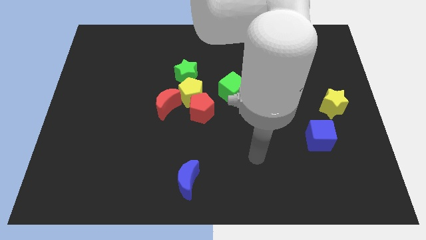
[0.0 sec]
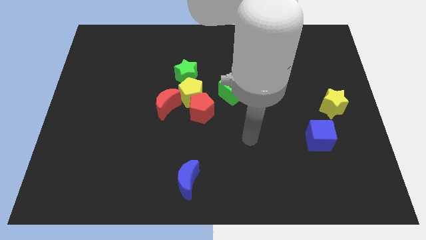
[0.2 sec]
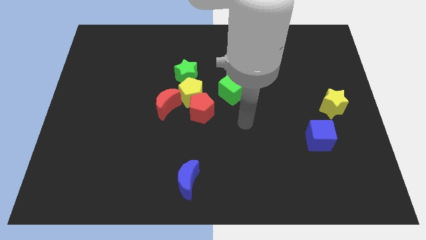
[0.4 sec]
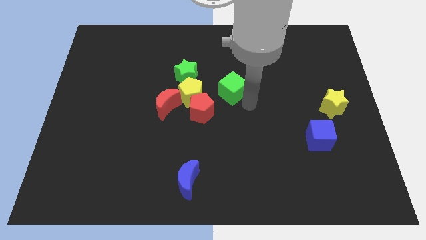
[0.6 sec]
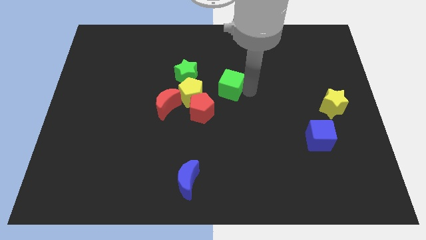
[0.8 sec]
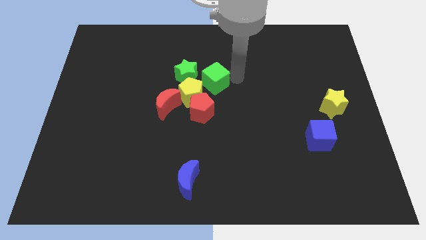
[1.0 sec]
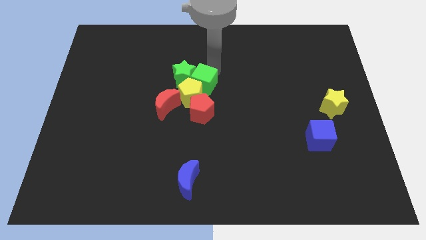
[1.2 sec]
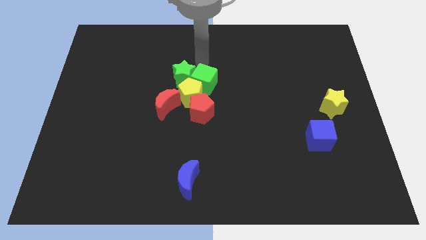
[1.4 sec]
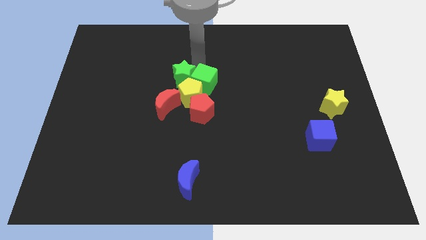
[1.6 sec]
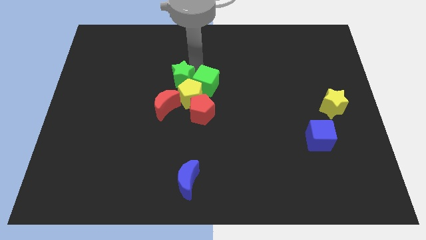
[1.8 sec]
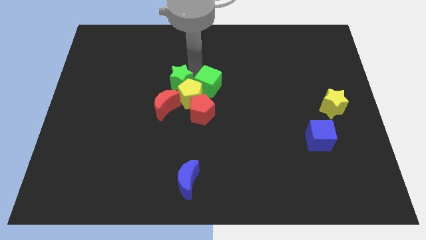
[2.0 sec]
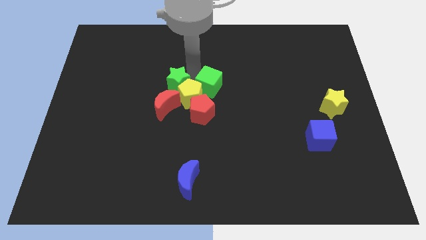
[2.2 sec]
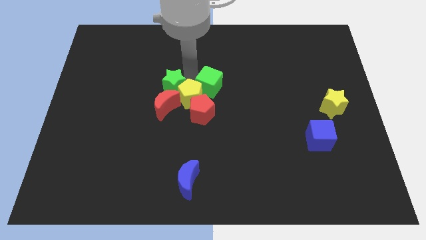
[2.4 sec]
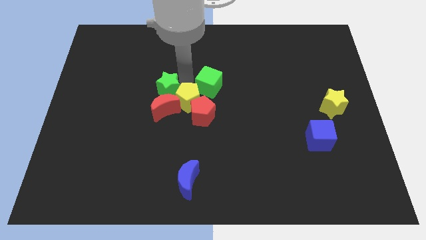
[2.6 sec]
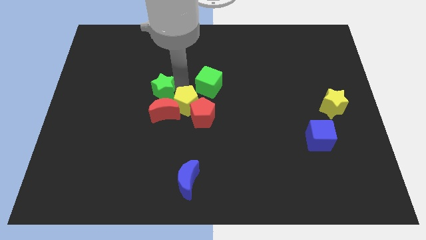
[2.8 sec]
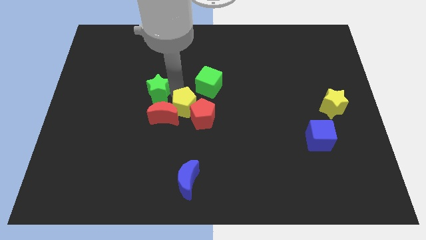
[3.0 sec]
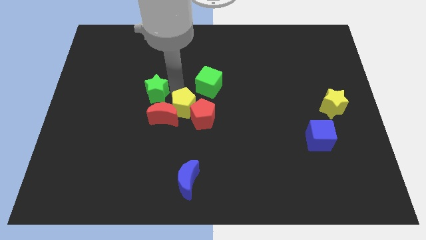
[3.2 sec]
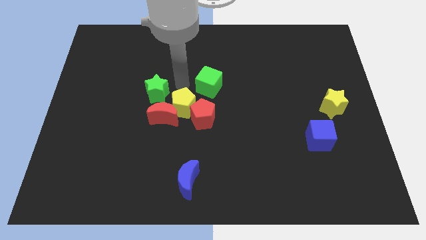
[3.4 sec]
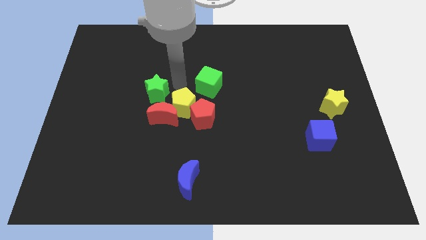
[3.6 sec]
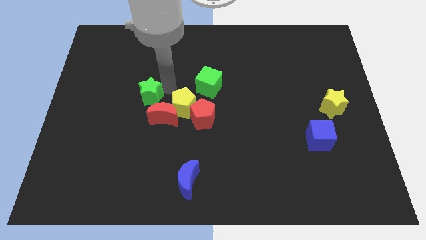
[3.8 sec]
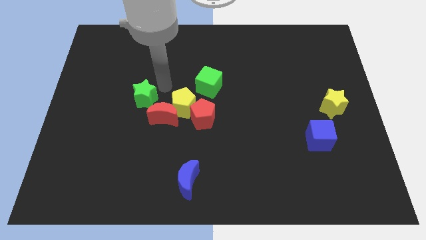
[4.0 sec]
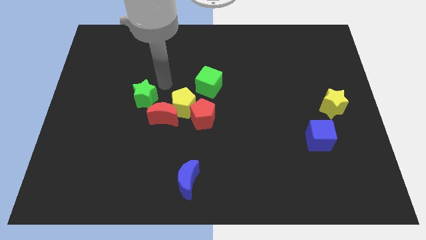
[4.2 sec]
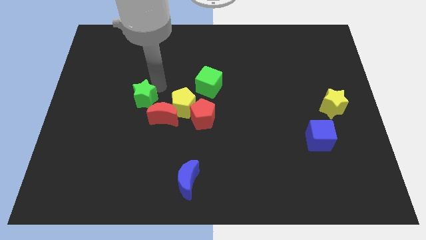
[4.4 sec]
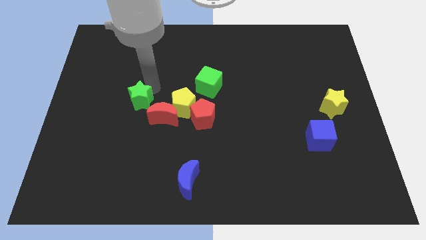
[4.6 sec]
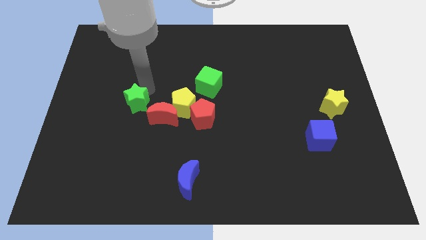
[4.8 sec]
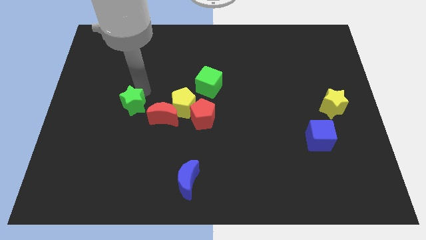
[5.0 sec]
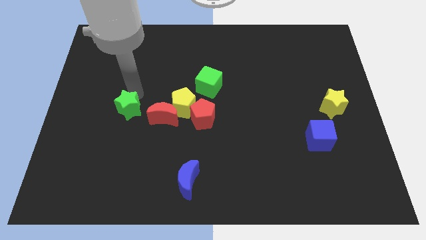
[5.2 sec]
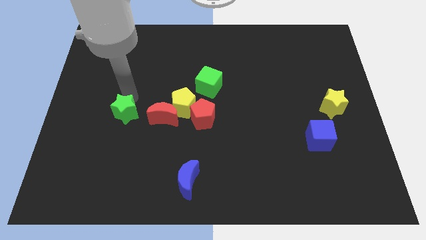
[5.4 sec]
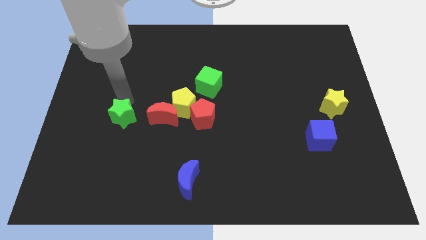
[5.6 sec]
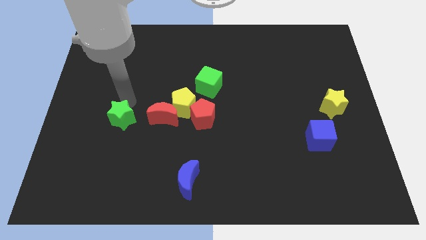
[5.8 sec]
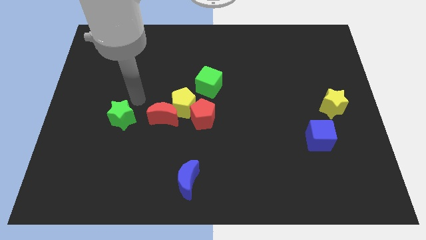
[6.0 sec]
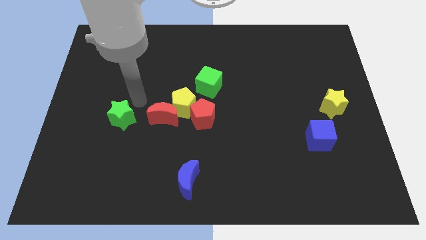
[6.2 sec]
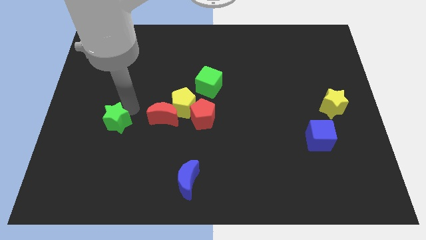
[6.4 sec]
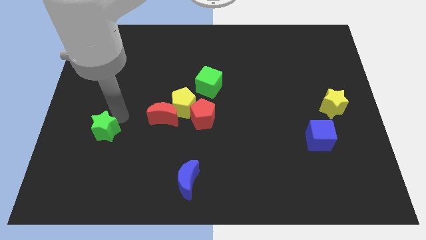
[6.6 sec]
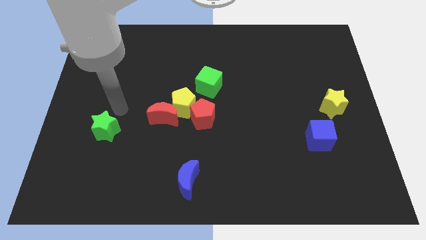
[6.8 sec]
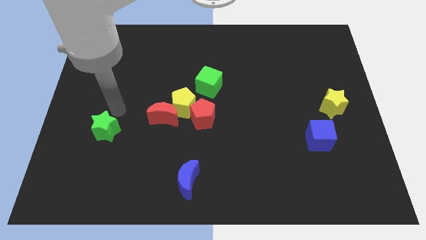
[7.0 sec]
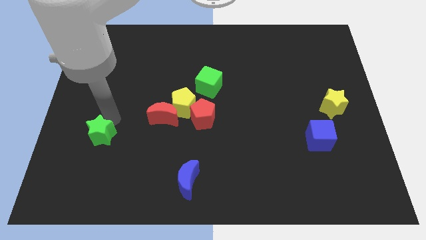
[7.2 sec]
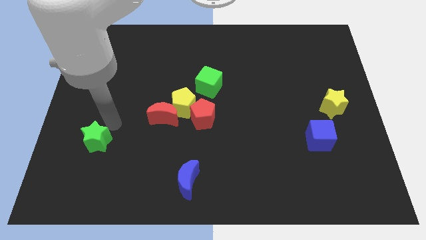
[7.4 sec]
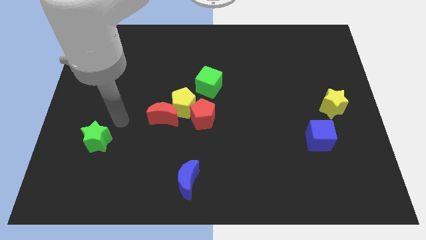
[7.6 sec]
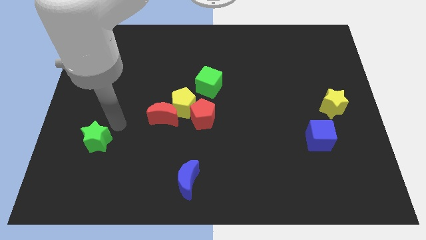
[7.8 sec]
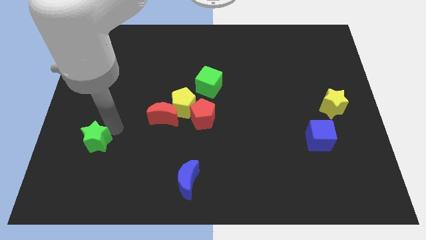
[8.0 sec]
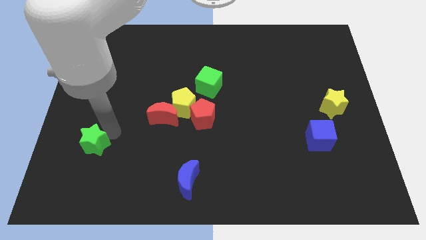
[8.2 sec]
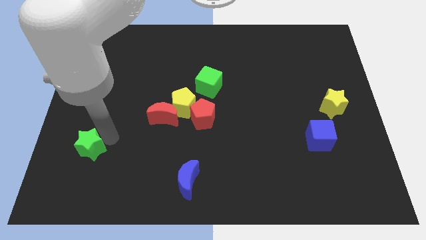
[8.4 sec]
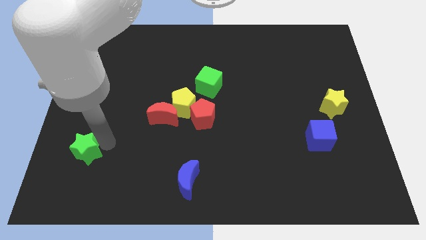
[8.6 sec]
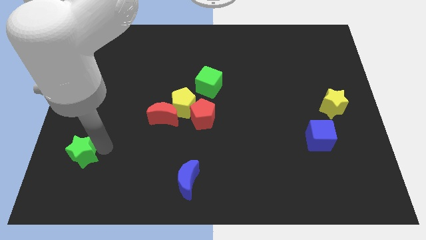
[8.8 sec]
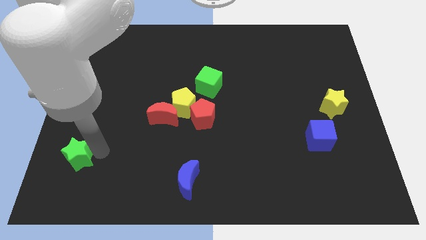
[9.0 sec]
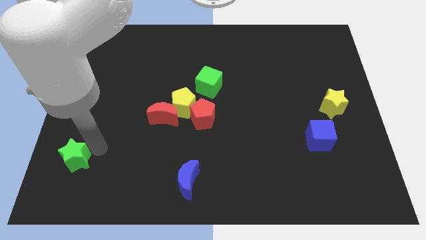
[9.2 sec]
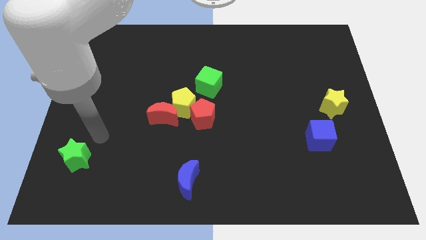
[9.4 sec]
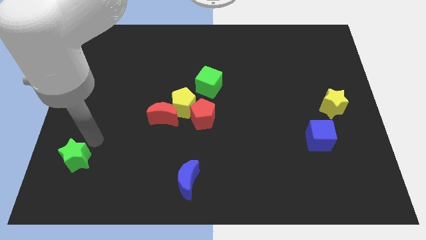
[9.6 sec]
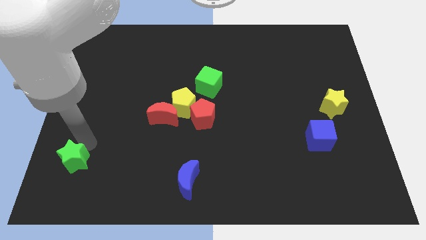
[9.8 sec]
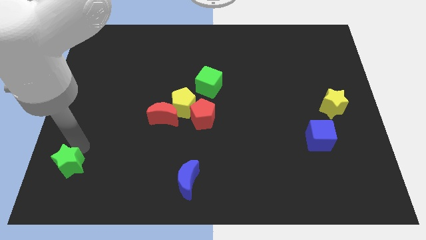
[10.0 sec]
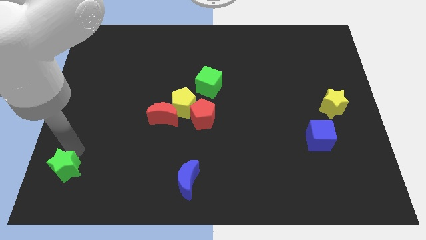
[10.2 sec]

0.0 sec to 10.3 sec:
move the green star to the bottom left of the board

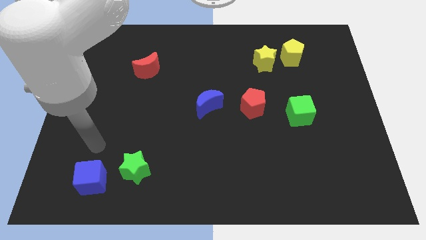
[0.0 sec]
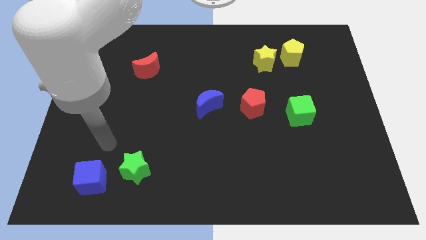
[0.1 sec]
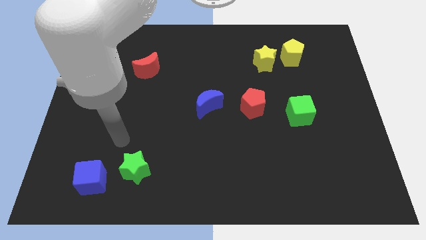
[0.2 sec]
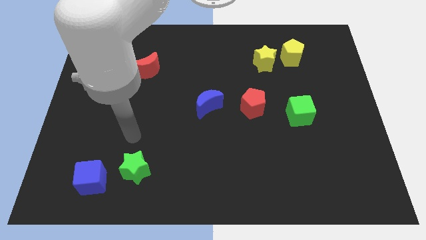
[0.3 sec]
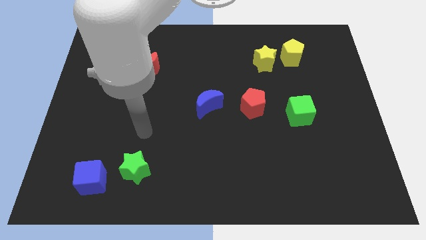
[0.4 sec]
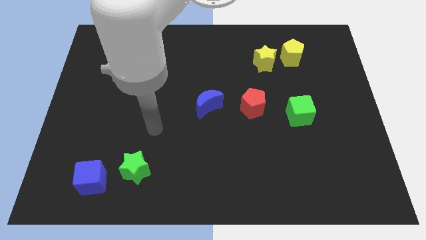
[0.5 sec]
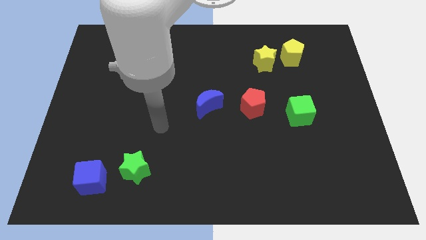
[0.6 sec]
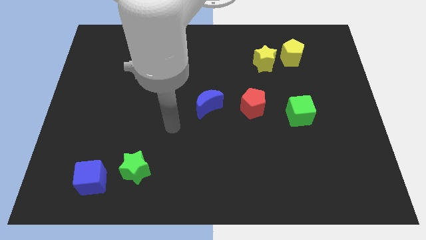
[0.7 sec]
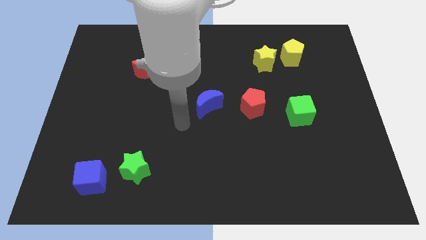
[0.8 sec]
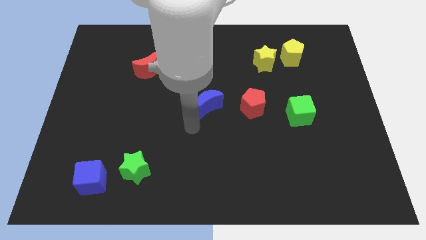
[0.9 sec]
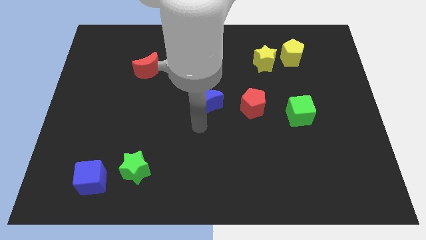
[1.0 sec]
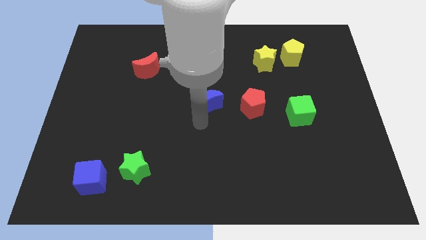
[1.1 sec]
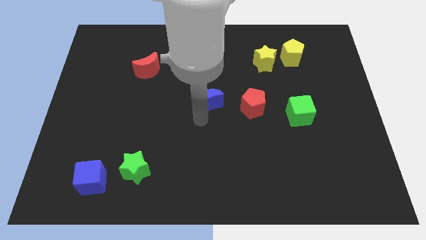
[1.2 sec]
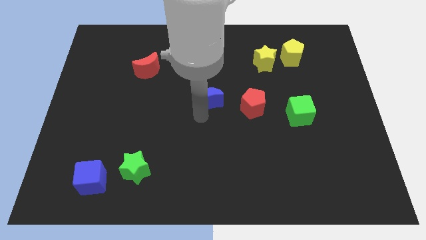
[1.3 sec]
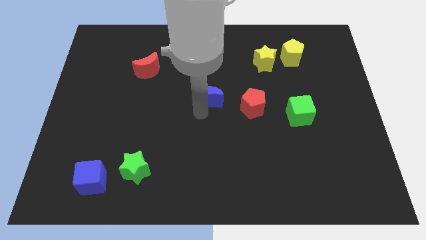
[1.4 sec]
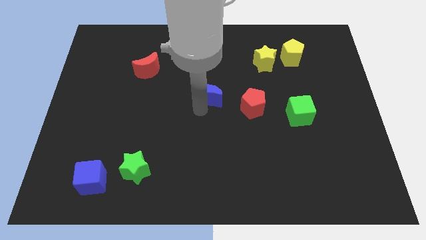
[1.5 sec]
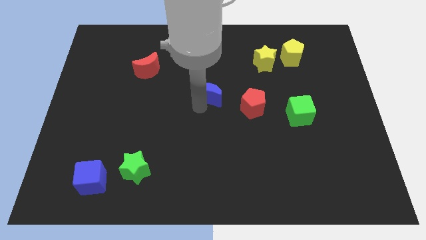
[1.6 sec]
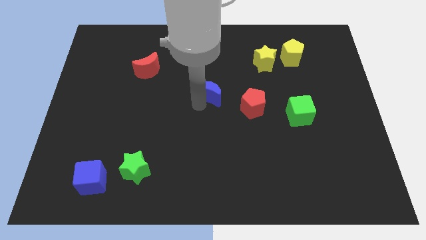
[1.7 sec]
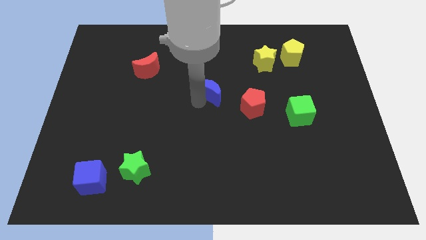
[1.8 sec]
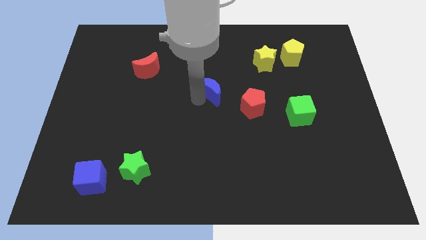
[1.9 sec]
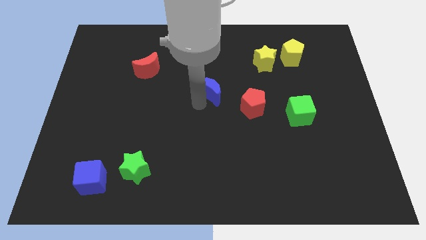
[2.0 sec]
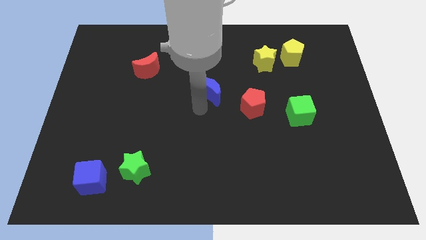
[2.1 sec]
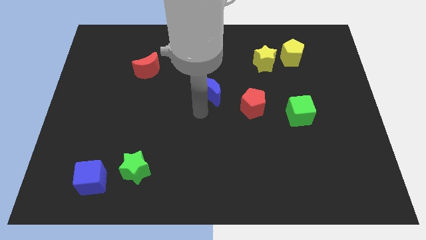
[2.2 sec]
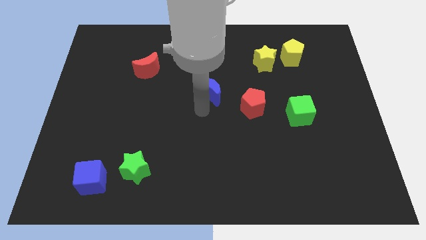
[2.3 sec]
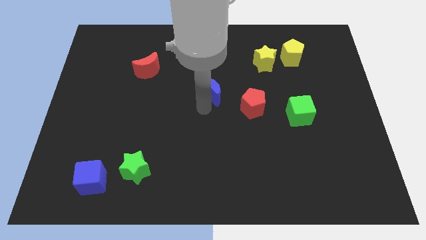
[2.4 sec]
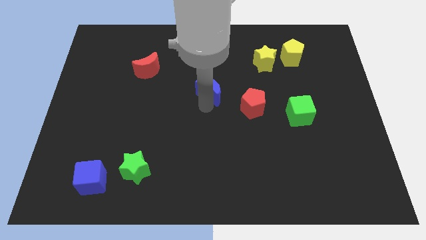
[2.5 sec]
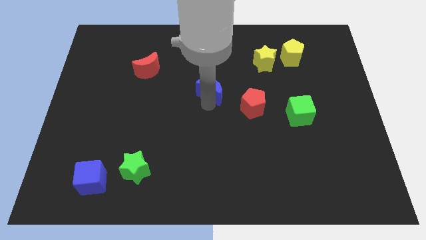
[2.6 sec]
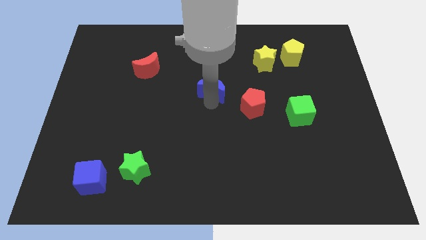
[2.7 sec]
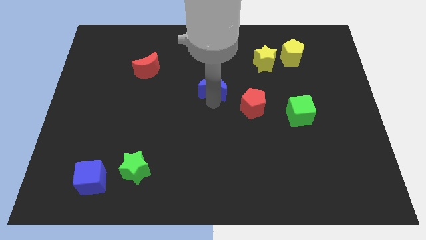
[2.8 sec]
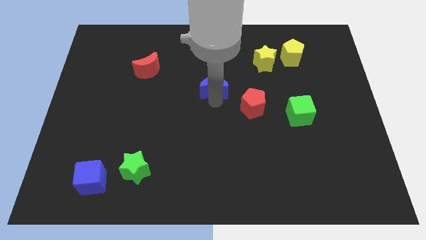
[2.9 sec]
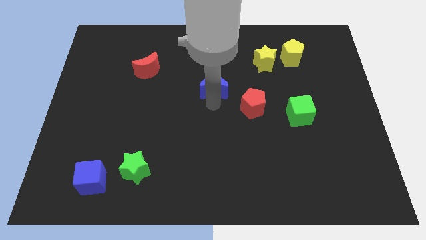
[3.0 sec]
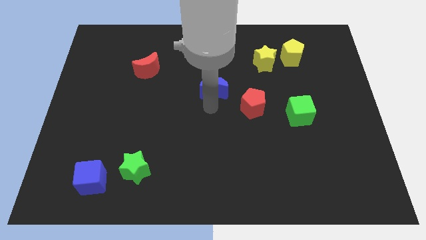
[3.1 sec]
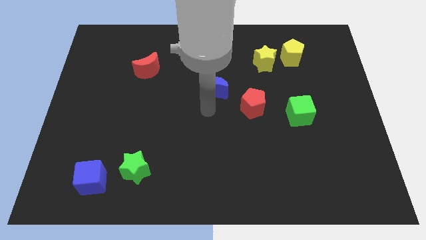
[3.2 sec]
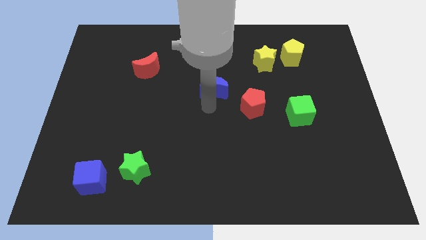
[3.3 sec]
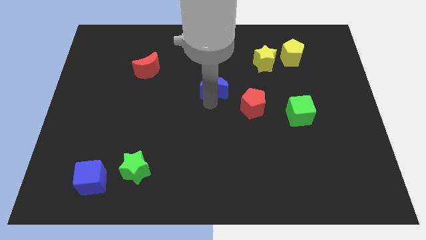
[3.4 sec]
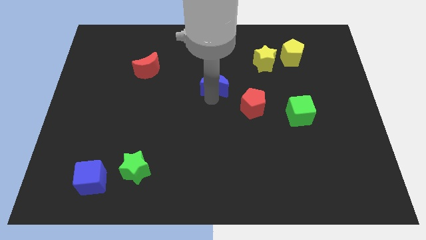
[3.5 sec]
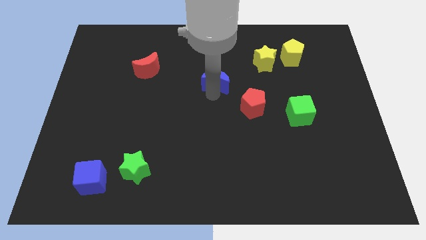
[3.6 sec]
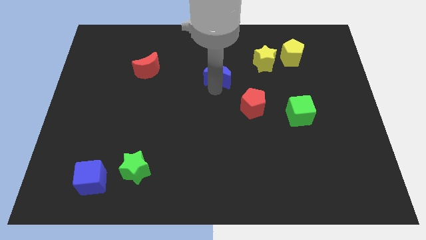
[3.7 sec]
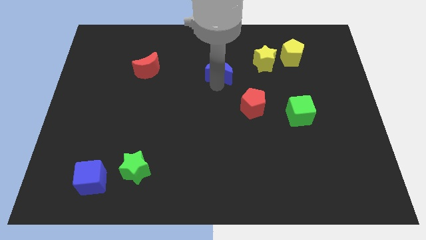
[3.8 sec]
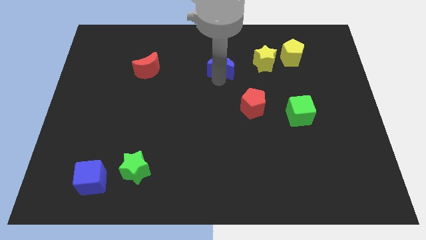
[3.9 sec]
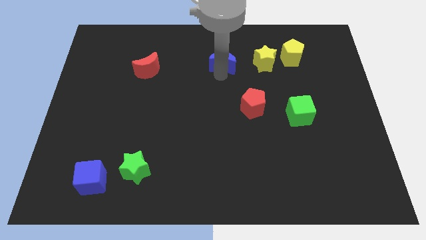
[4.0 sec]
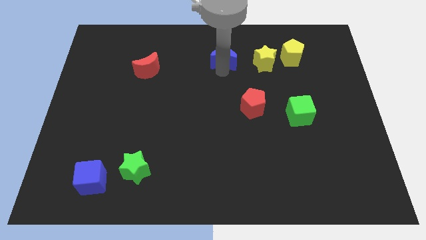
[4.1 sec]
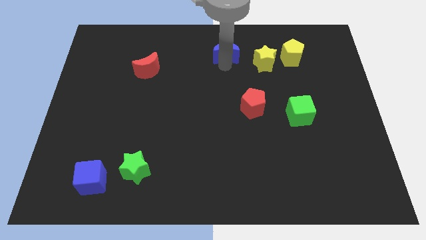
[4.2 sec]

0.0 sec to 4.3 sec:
push the blue moon to the top side
